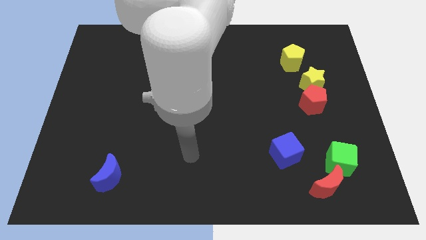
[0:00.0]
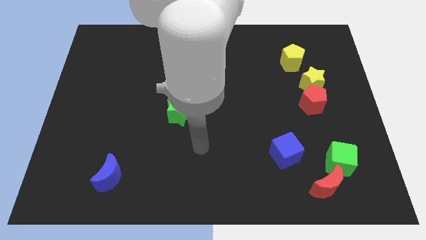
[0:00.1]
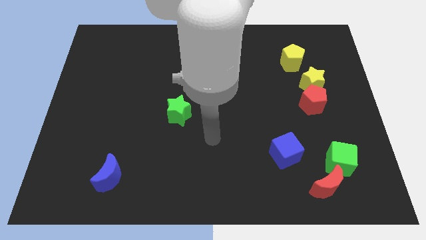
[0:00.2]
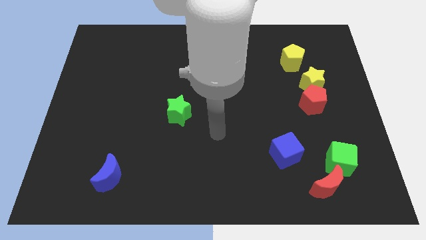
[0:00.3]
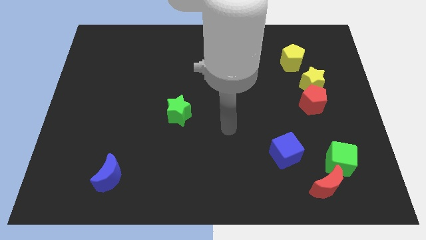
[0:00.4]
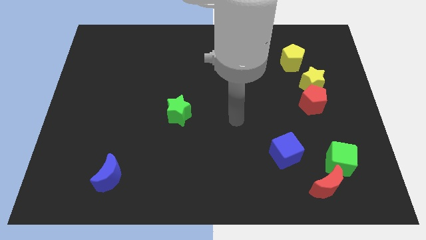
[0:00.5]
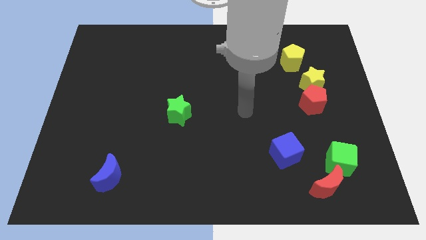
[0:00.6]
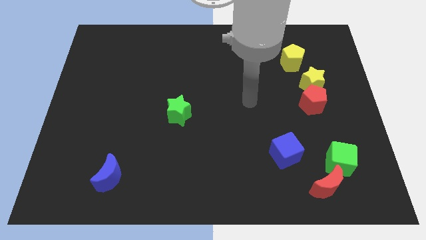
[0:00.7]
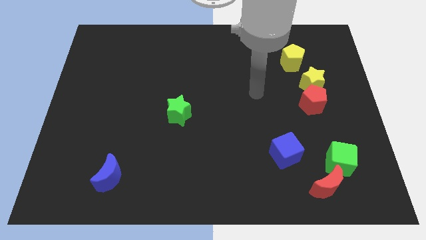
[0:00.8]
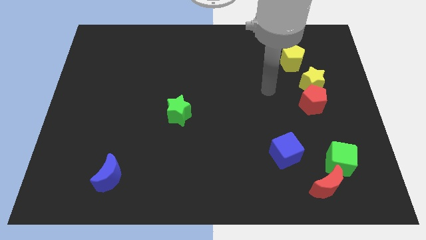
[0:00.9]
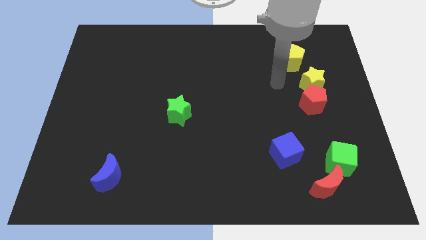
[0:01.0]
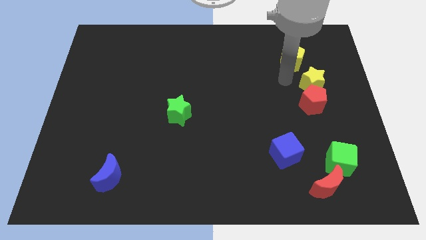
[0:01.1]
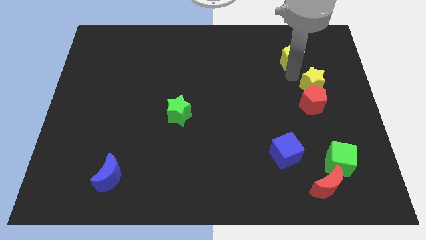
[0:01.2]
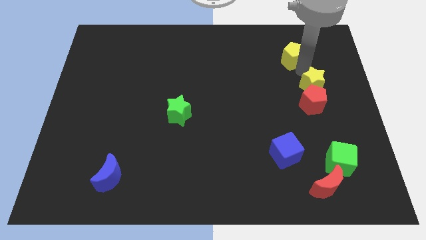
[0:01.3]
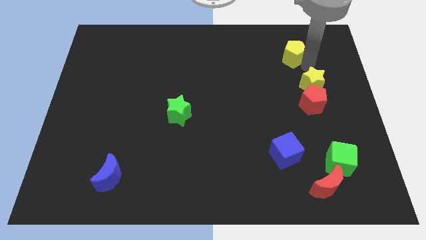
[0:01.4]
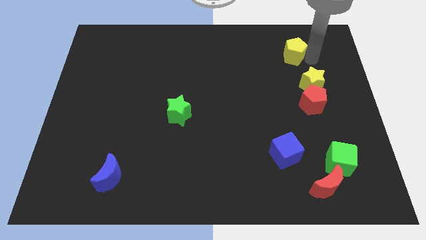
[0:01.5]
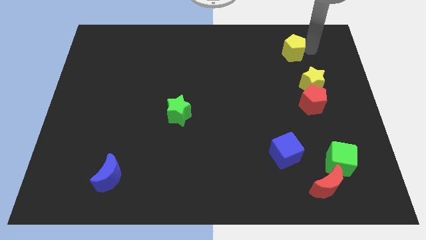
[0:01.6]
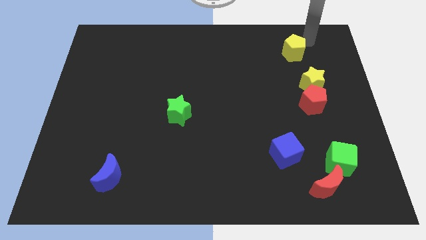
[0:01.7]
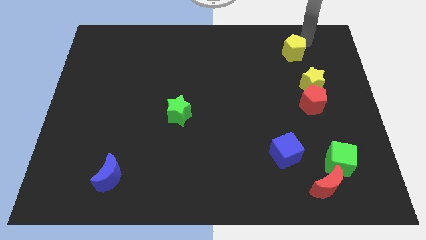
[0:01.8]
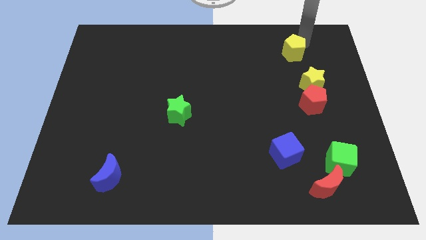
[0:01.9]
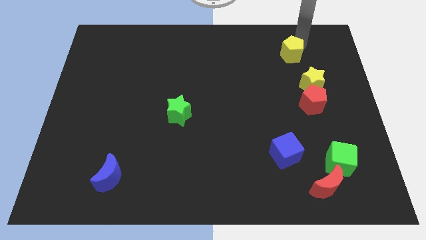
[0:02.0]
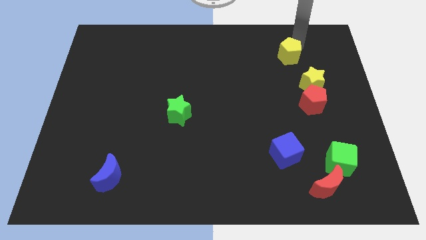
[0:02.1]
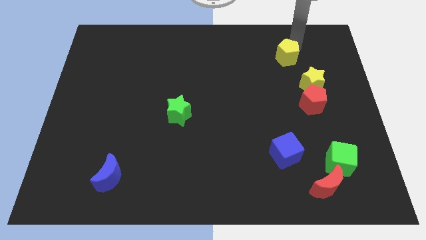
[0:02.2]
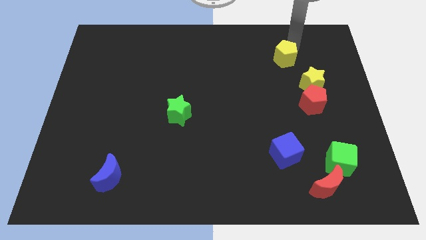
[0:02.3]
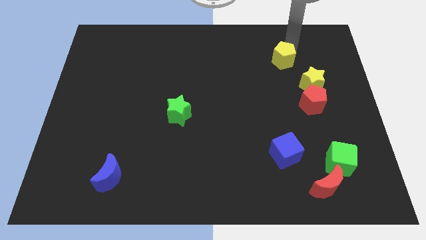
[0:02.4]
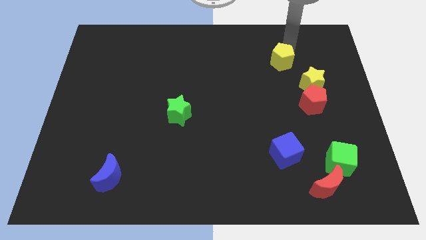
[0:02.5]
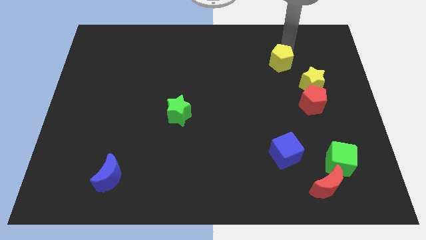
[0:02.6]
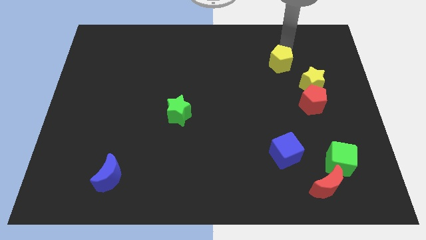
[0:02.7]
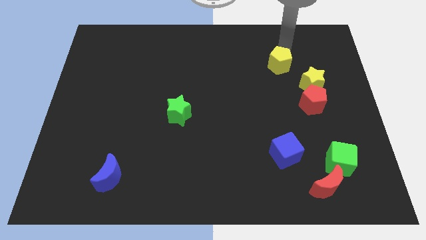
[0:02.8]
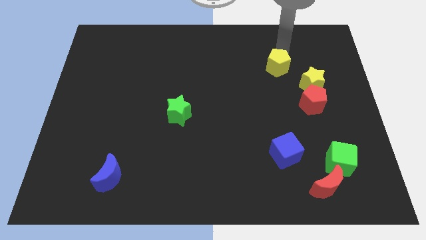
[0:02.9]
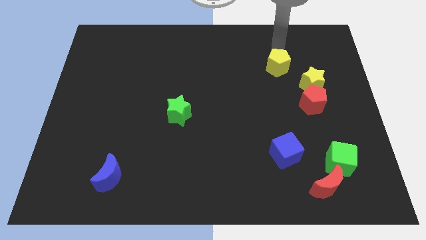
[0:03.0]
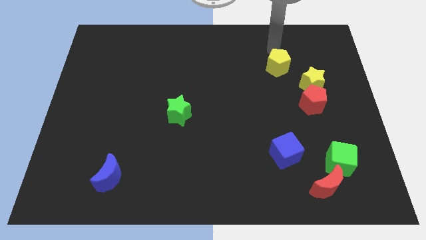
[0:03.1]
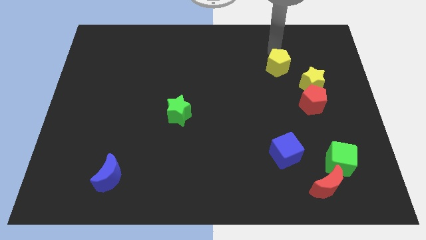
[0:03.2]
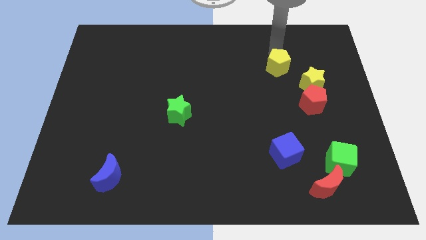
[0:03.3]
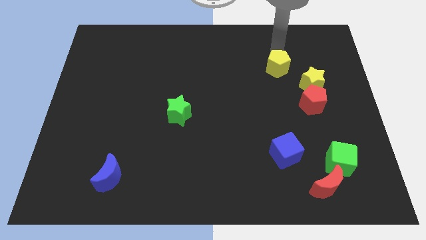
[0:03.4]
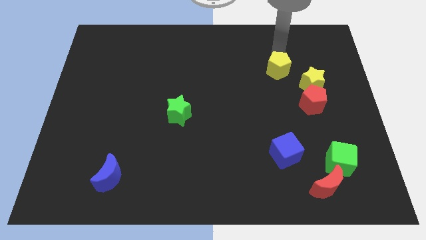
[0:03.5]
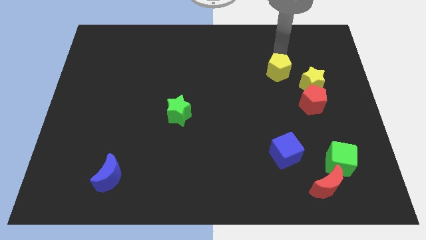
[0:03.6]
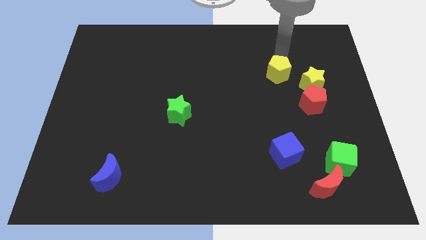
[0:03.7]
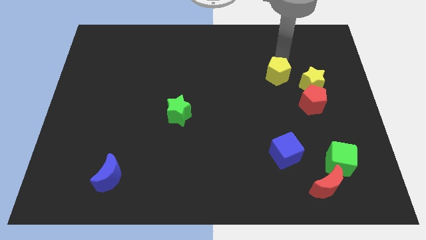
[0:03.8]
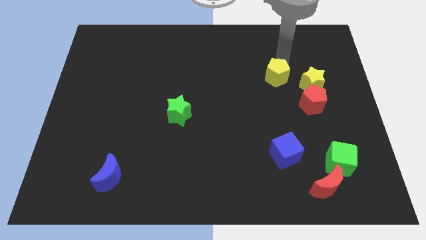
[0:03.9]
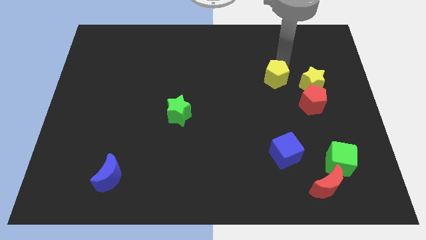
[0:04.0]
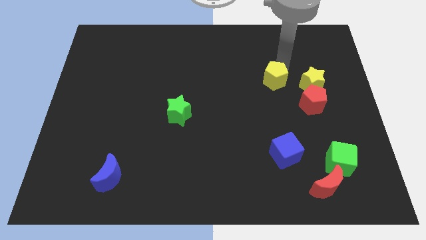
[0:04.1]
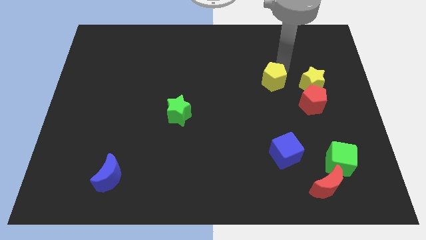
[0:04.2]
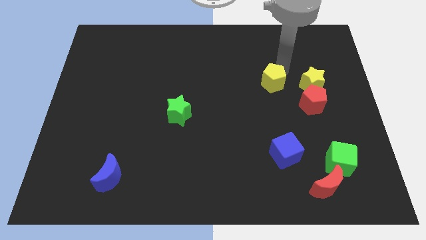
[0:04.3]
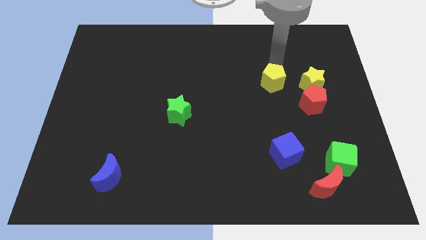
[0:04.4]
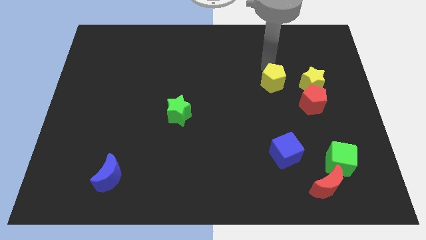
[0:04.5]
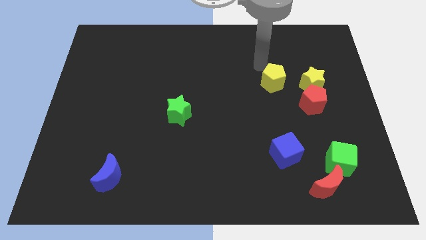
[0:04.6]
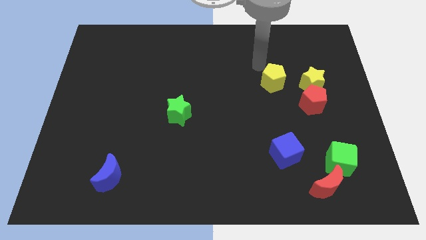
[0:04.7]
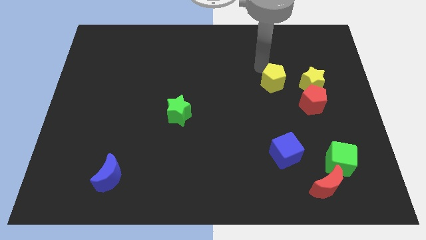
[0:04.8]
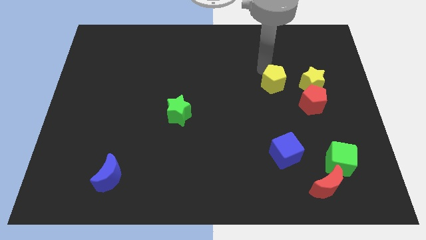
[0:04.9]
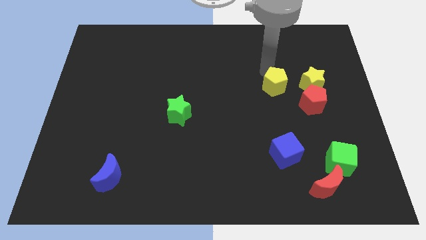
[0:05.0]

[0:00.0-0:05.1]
slightly push the yellow pentagon downwards

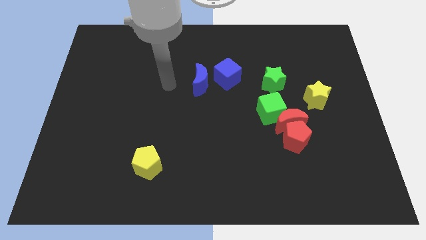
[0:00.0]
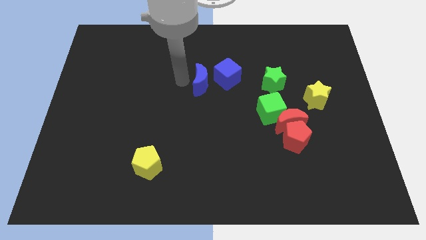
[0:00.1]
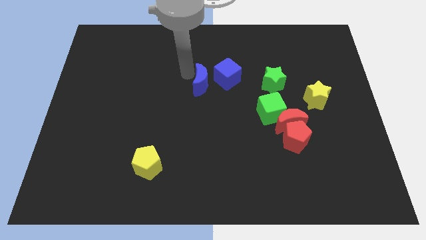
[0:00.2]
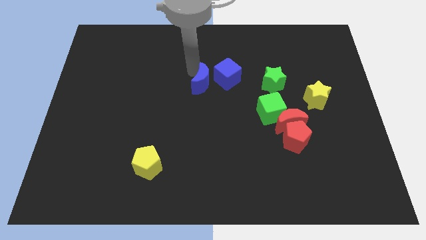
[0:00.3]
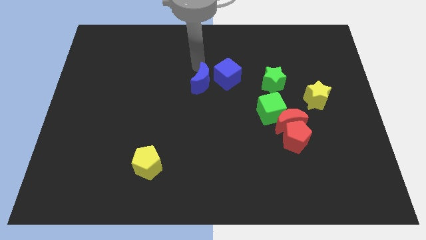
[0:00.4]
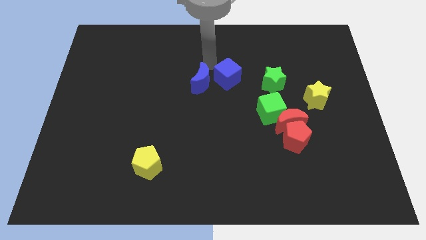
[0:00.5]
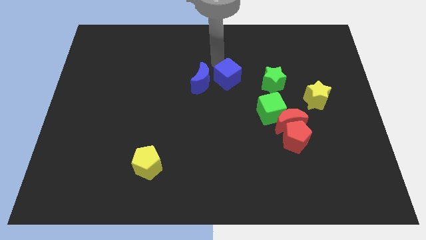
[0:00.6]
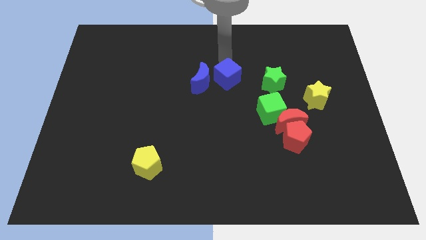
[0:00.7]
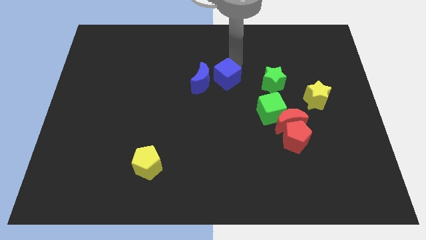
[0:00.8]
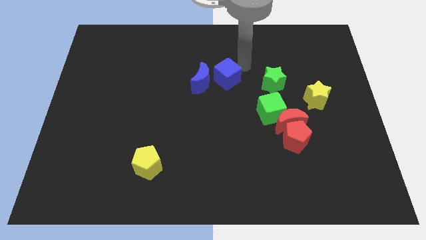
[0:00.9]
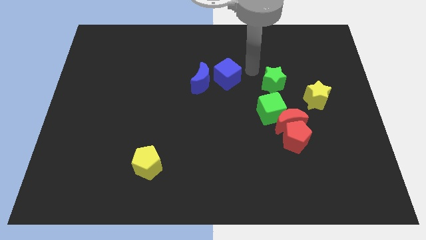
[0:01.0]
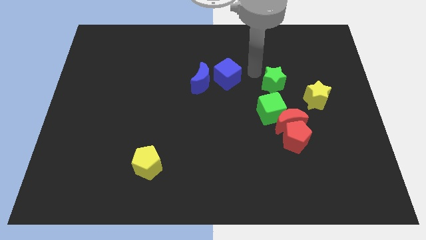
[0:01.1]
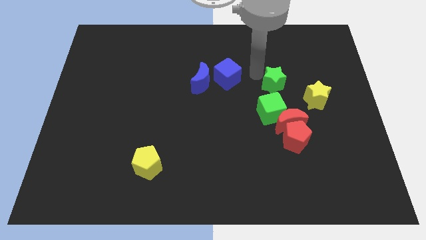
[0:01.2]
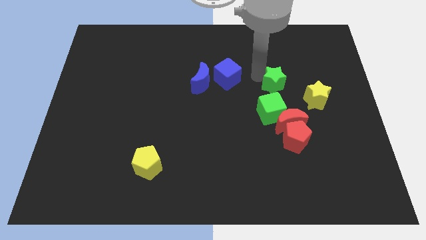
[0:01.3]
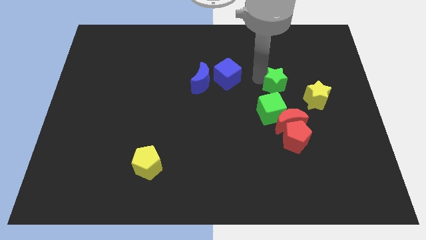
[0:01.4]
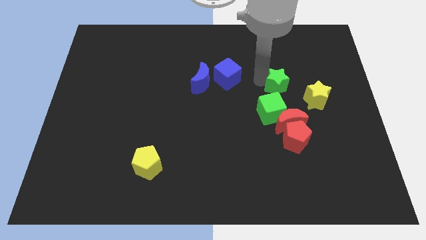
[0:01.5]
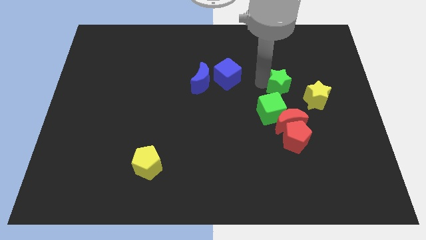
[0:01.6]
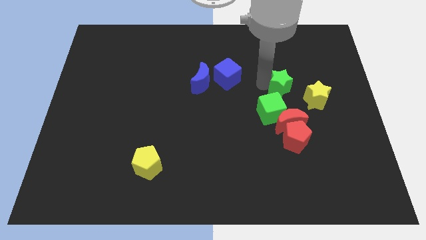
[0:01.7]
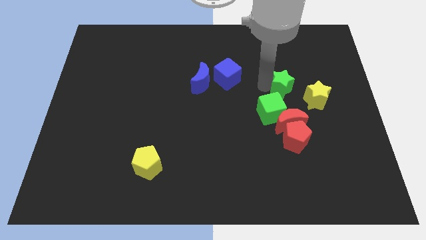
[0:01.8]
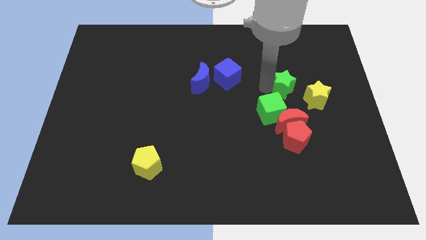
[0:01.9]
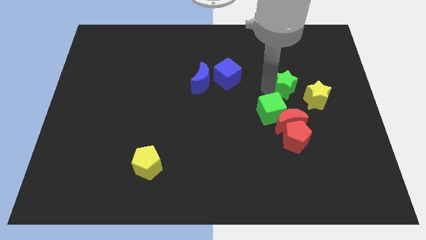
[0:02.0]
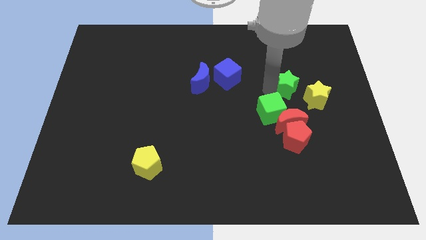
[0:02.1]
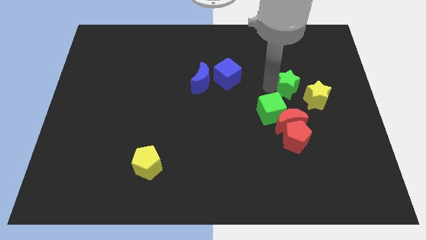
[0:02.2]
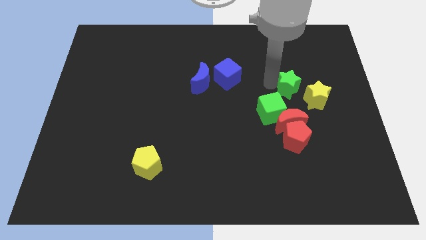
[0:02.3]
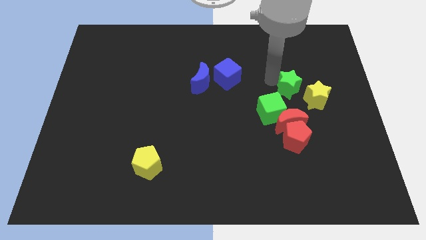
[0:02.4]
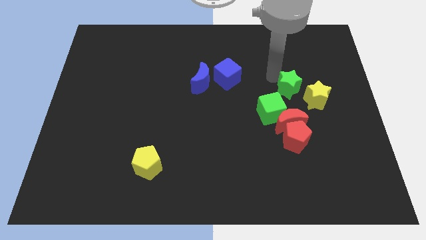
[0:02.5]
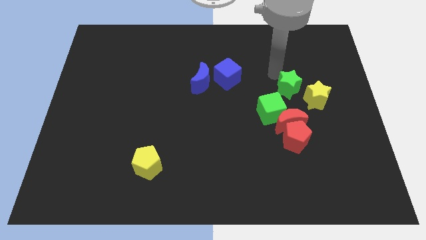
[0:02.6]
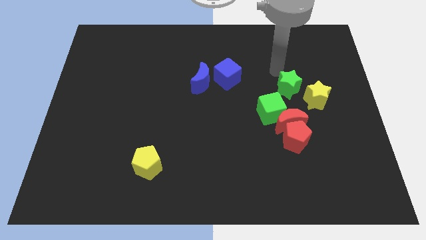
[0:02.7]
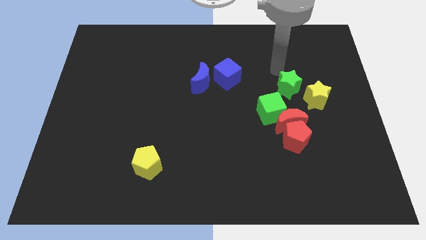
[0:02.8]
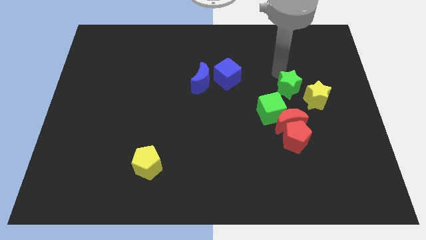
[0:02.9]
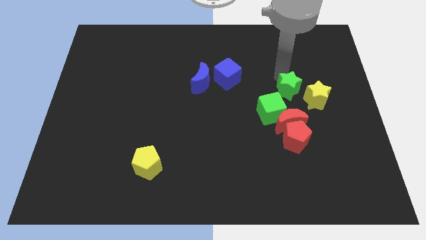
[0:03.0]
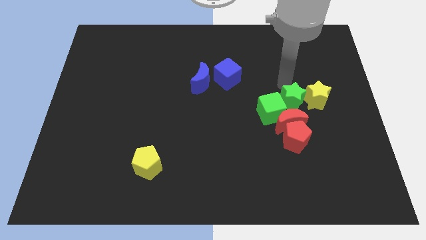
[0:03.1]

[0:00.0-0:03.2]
slightly move the green star diagonally down and to the right

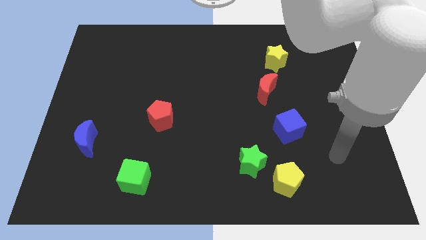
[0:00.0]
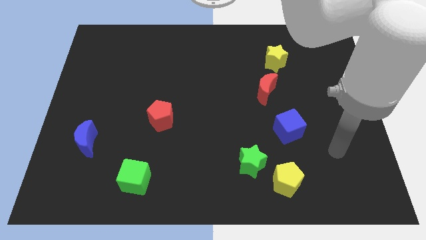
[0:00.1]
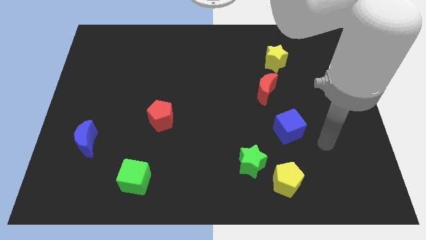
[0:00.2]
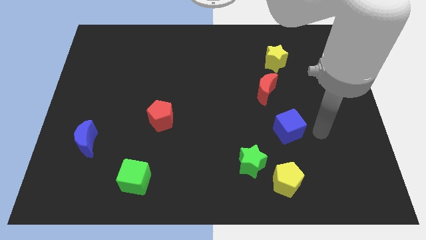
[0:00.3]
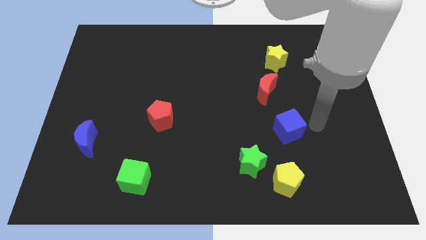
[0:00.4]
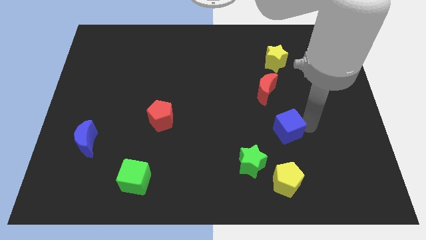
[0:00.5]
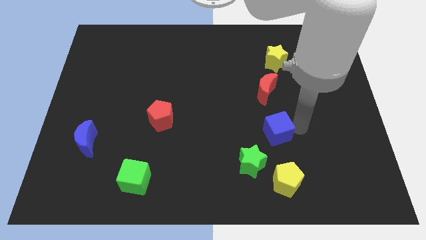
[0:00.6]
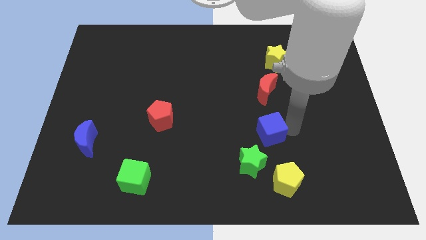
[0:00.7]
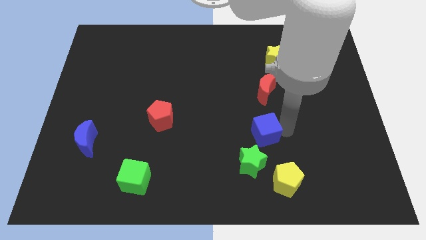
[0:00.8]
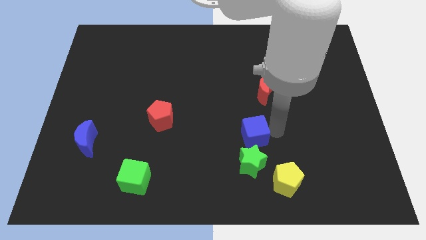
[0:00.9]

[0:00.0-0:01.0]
slightly push the blue cube left
